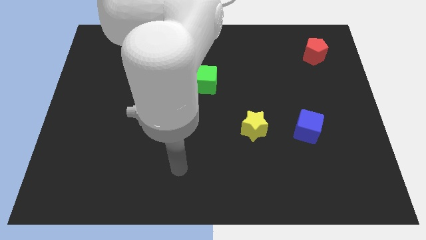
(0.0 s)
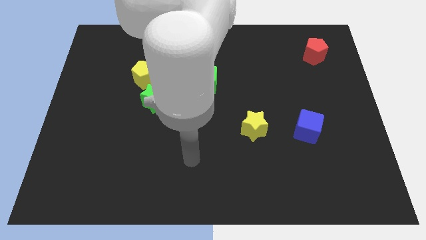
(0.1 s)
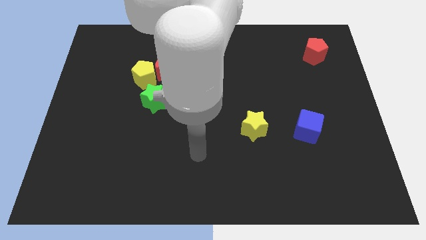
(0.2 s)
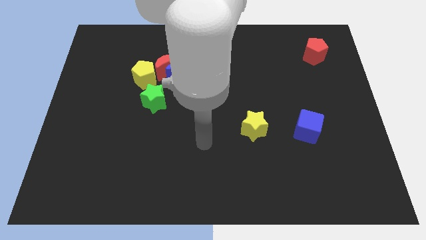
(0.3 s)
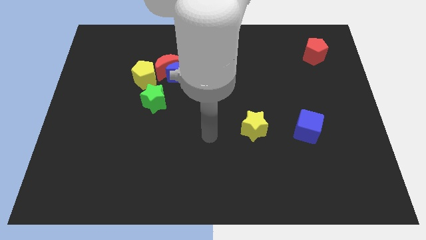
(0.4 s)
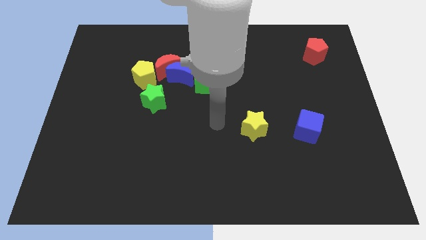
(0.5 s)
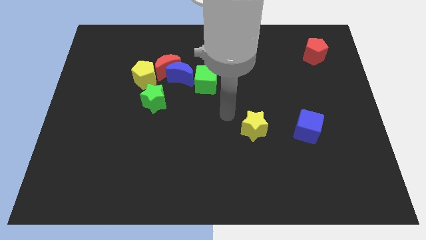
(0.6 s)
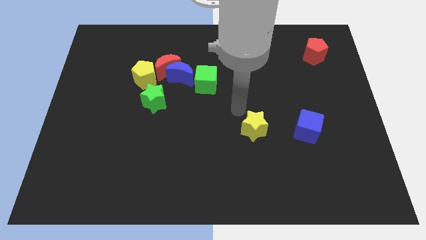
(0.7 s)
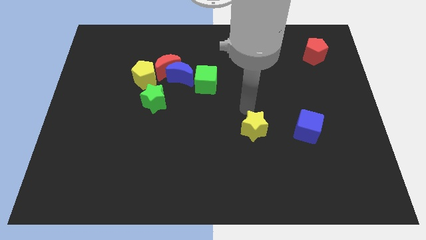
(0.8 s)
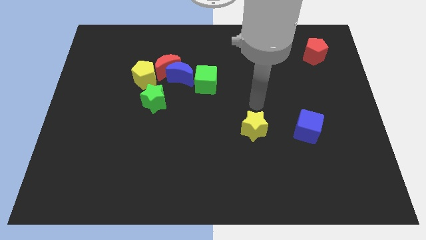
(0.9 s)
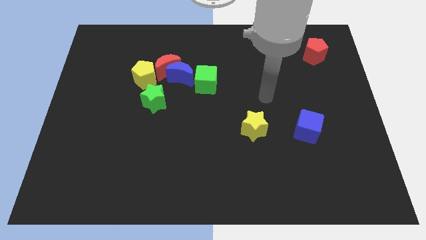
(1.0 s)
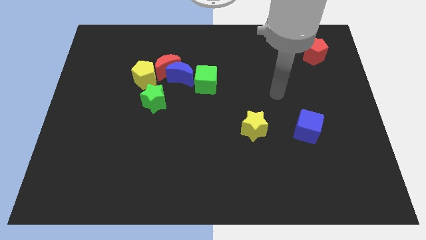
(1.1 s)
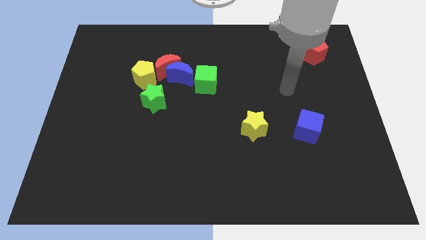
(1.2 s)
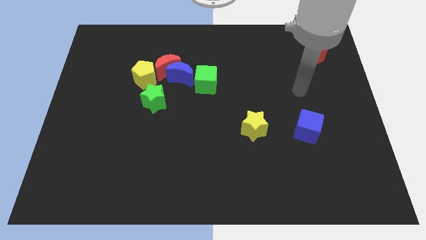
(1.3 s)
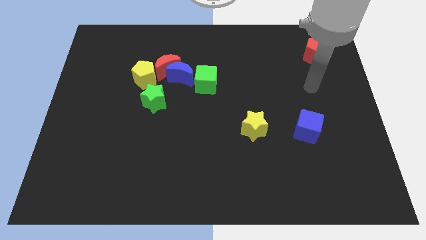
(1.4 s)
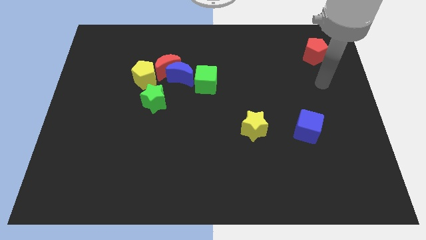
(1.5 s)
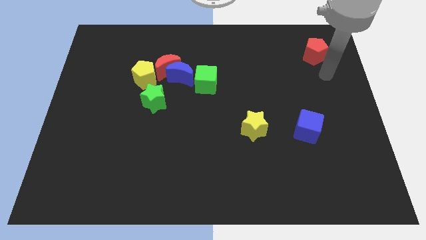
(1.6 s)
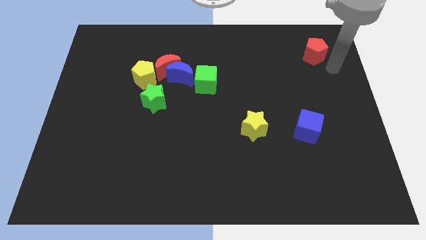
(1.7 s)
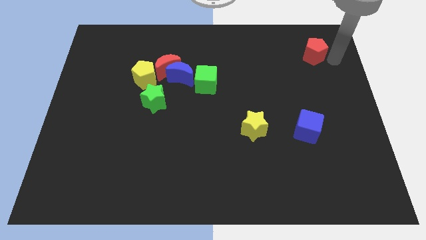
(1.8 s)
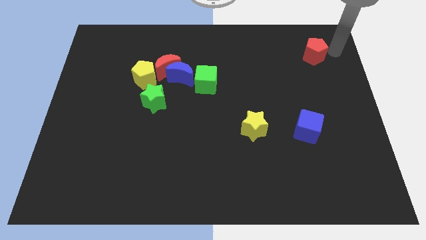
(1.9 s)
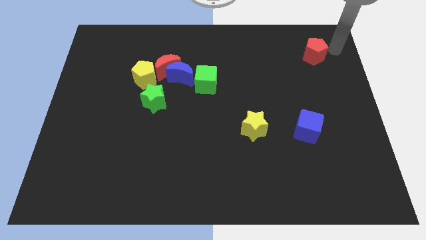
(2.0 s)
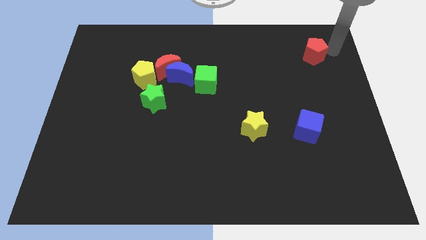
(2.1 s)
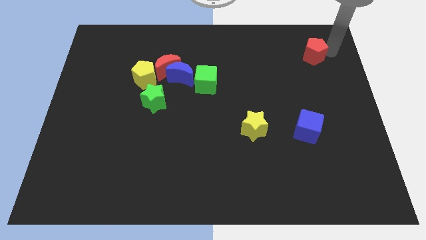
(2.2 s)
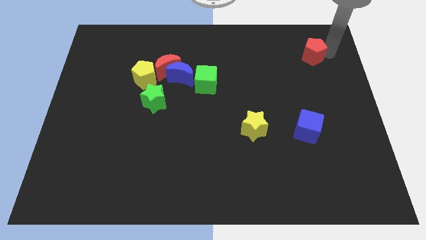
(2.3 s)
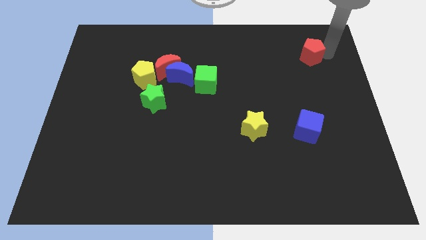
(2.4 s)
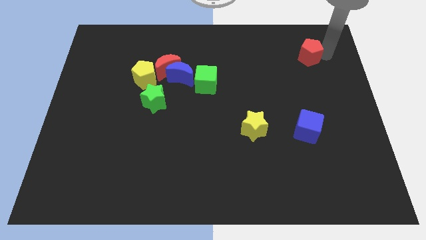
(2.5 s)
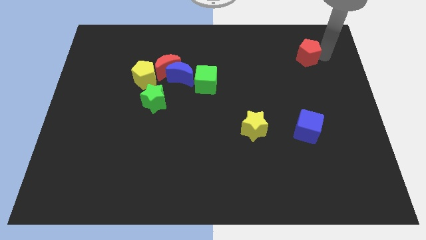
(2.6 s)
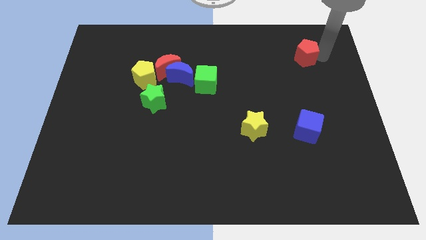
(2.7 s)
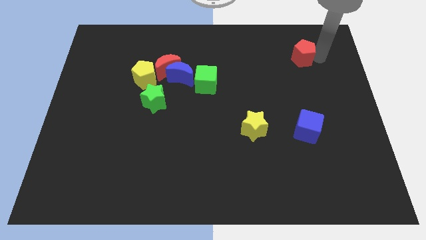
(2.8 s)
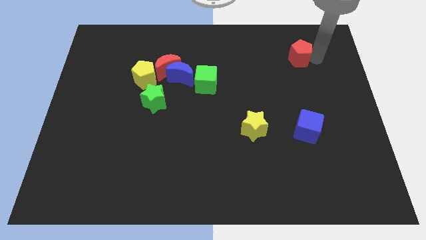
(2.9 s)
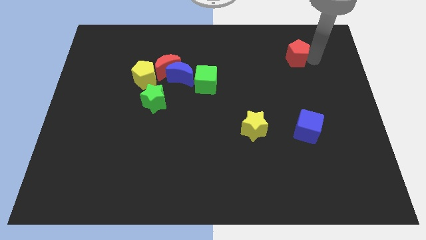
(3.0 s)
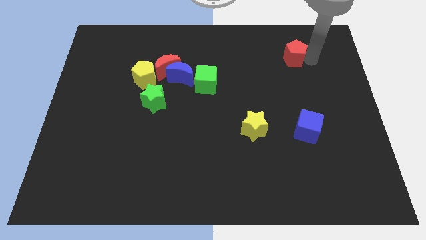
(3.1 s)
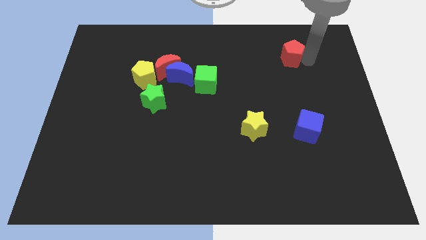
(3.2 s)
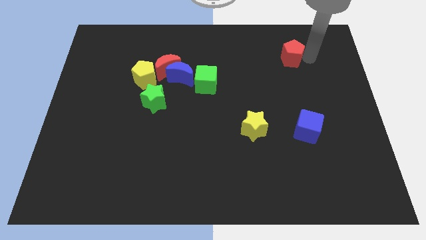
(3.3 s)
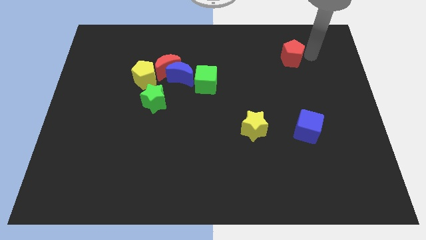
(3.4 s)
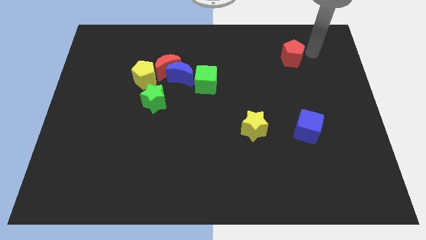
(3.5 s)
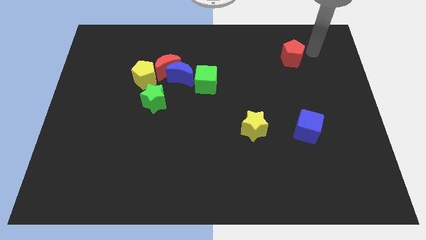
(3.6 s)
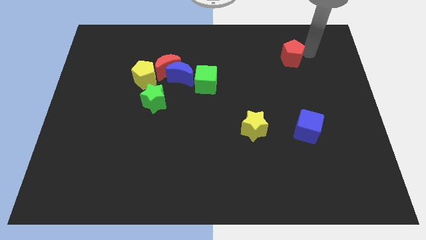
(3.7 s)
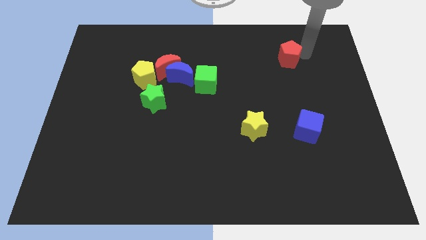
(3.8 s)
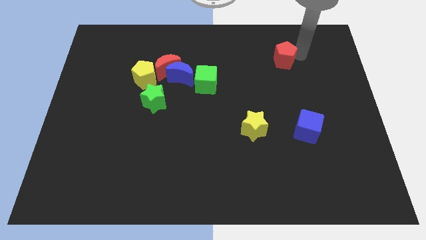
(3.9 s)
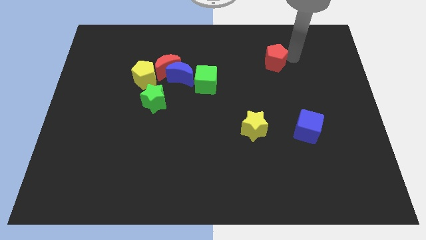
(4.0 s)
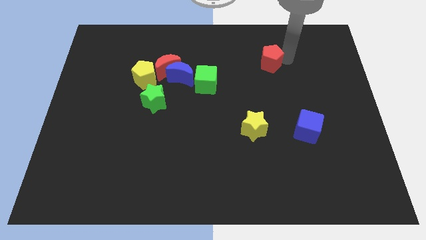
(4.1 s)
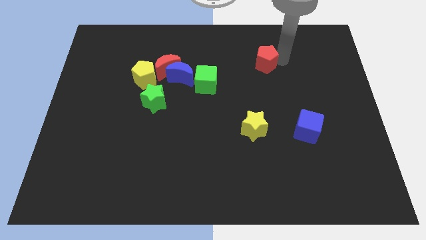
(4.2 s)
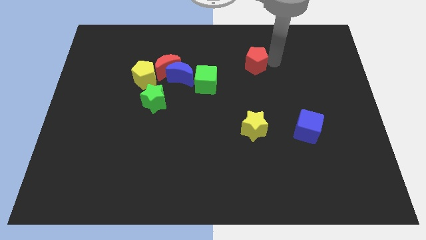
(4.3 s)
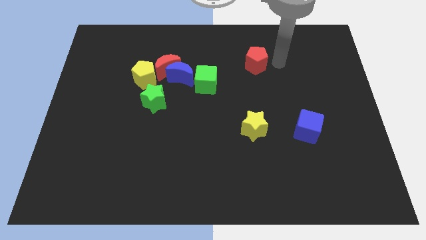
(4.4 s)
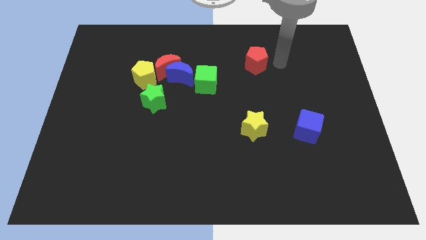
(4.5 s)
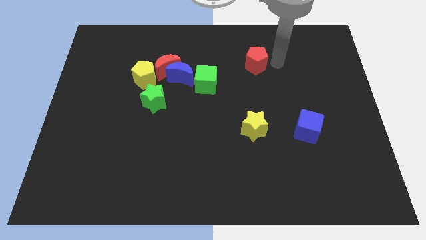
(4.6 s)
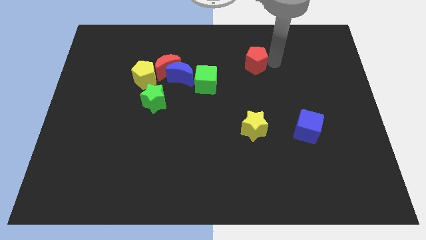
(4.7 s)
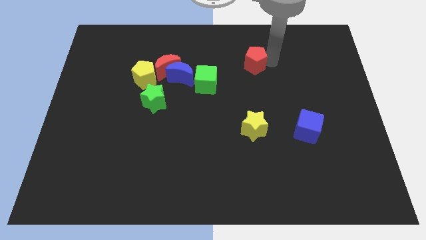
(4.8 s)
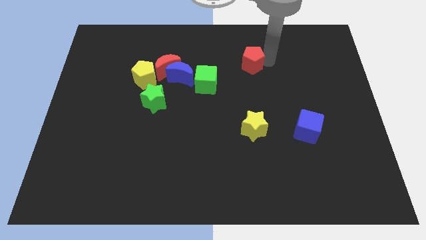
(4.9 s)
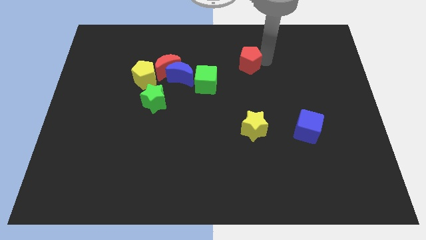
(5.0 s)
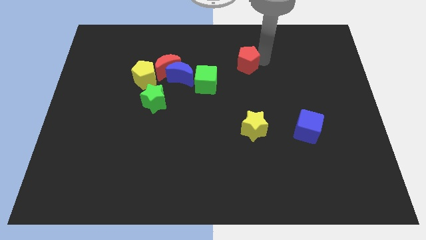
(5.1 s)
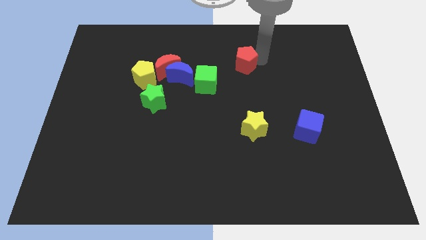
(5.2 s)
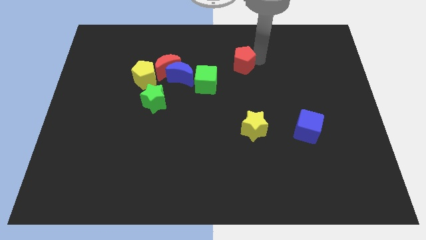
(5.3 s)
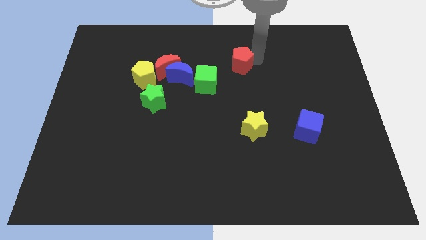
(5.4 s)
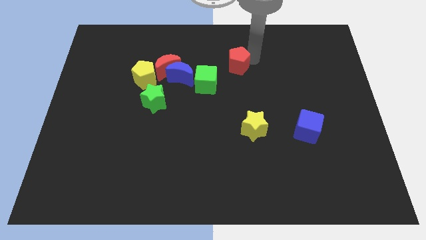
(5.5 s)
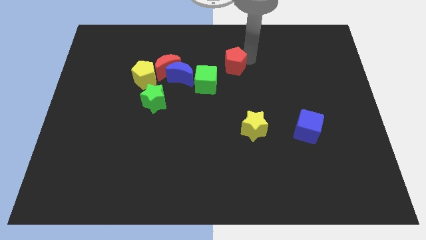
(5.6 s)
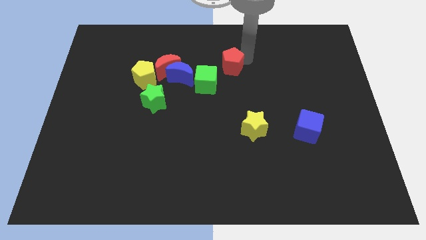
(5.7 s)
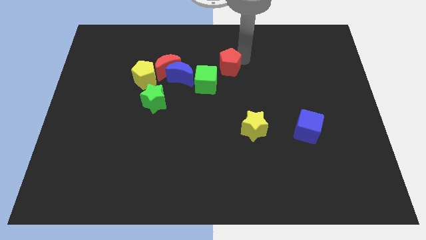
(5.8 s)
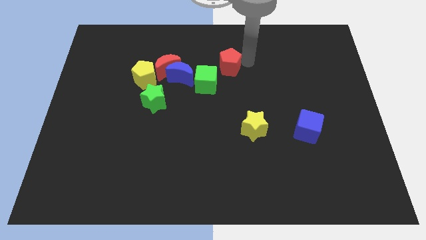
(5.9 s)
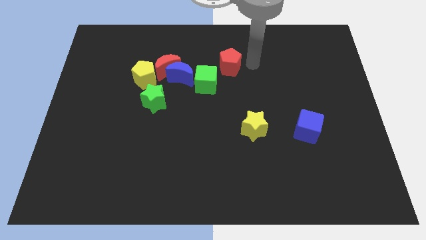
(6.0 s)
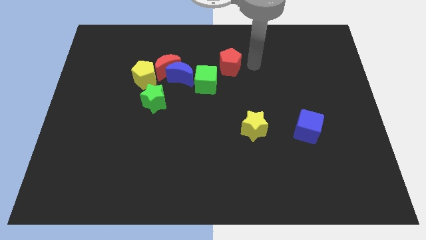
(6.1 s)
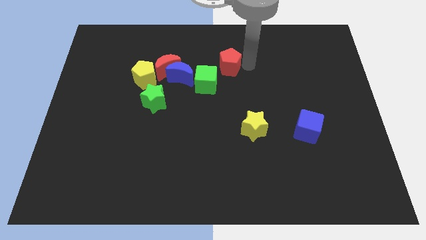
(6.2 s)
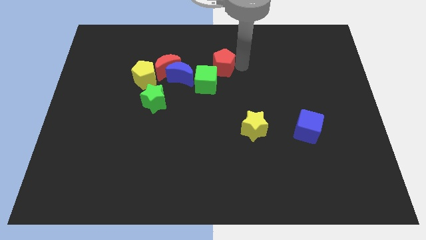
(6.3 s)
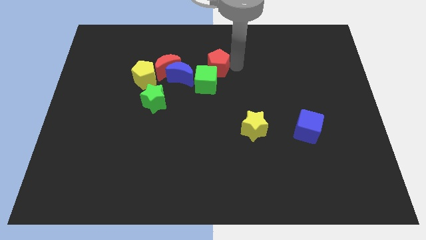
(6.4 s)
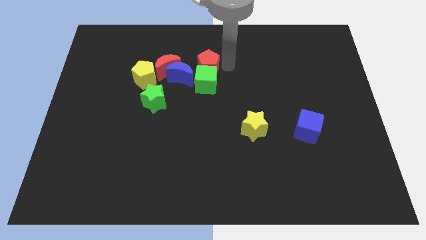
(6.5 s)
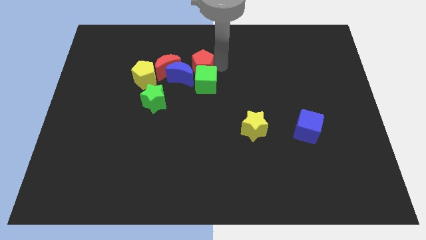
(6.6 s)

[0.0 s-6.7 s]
slide the red pentagon to the blue moon

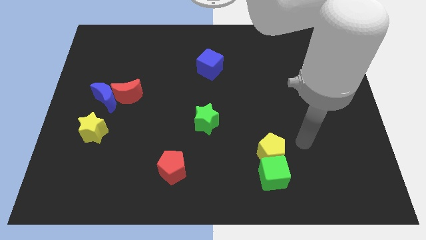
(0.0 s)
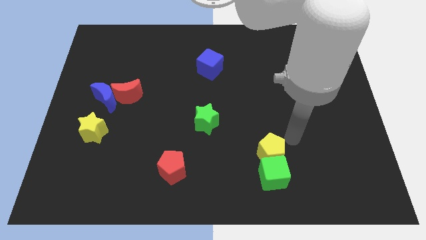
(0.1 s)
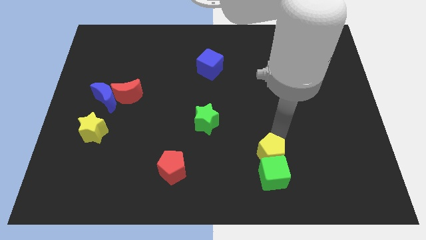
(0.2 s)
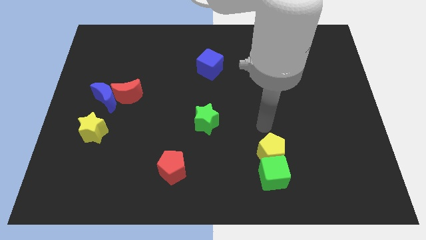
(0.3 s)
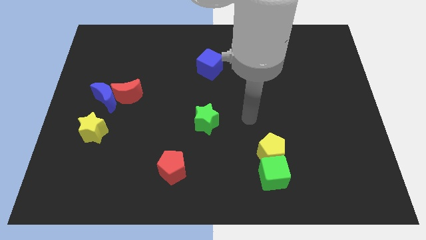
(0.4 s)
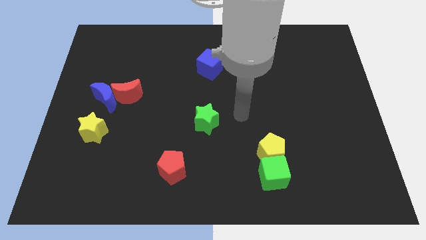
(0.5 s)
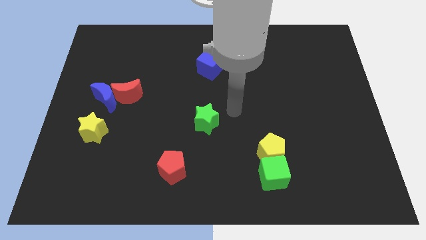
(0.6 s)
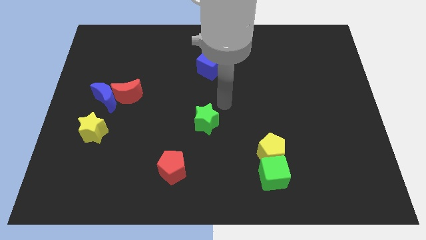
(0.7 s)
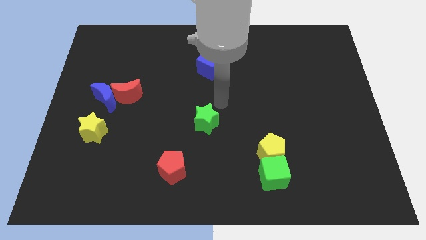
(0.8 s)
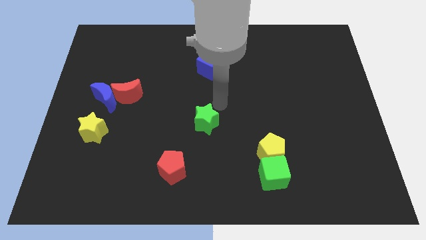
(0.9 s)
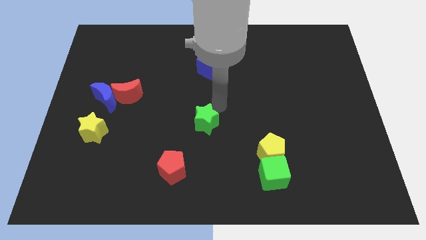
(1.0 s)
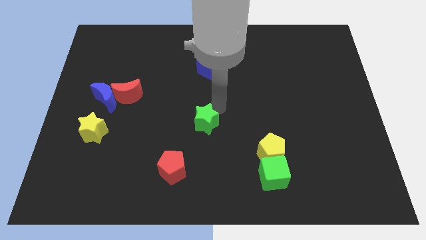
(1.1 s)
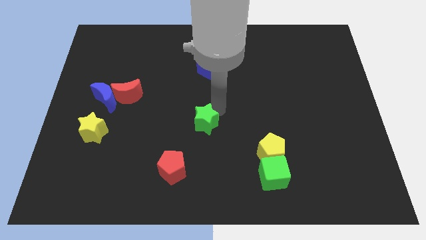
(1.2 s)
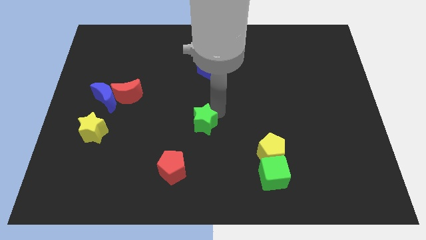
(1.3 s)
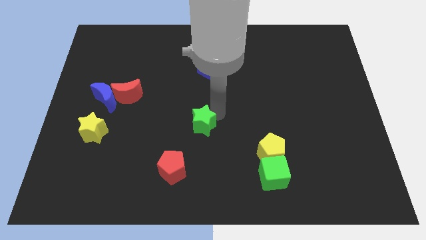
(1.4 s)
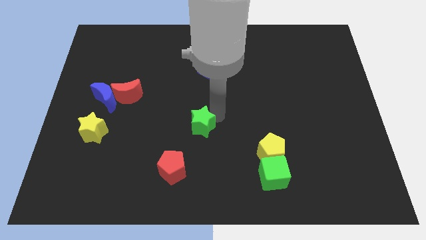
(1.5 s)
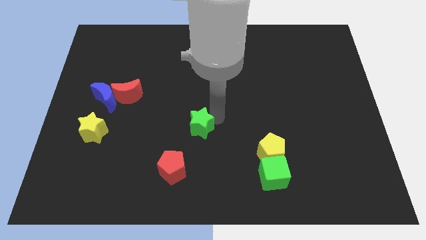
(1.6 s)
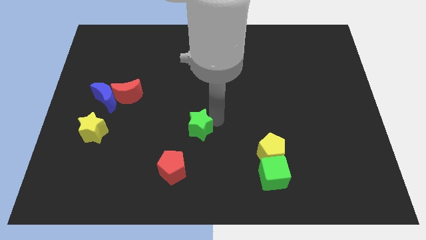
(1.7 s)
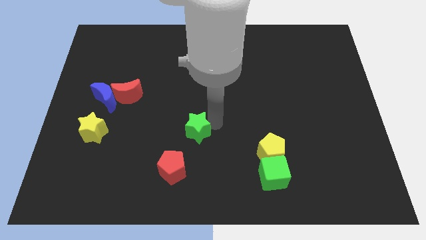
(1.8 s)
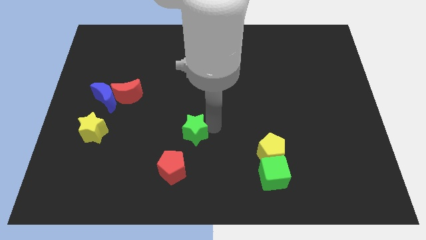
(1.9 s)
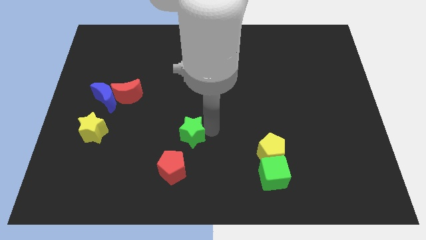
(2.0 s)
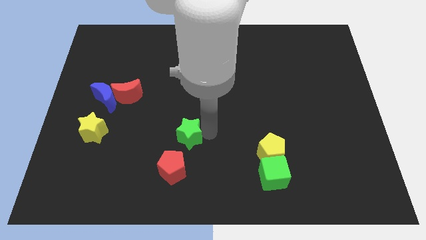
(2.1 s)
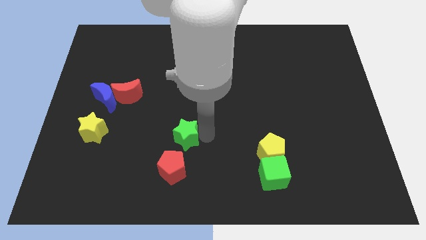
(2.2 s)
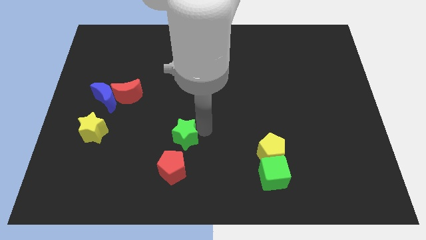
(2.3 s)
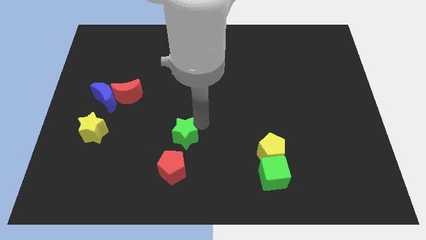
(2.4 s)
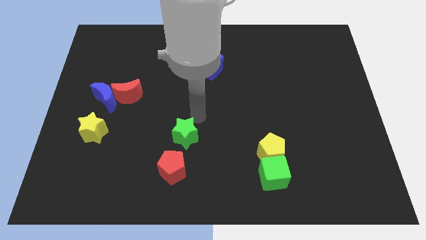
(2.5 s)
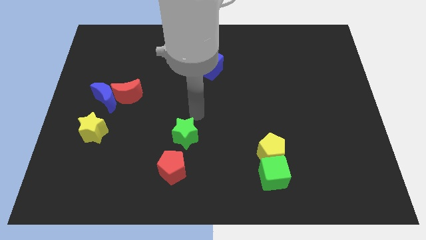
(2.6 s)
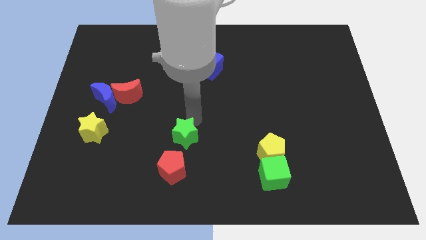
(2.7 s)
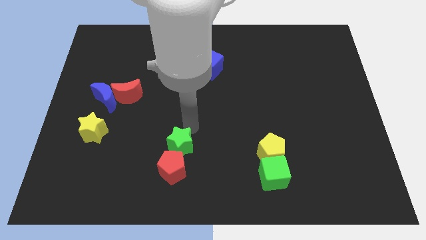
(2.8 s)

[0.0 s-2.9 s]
slide the green star next to the red pentagon
